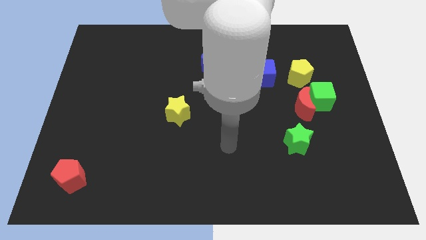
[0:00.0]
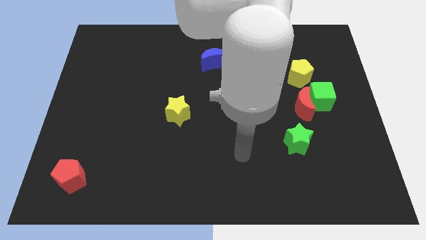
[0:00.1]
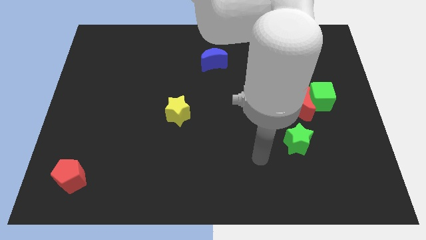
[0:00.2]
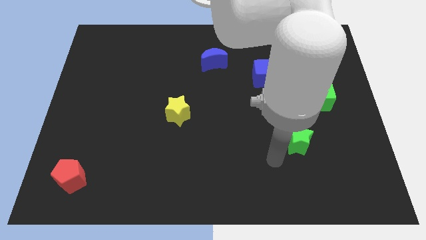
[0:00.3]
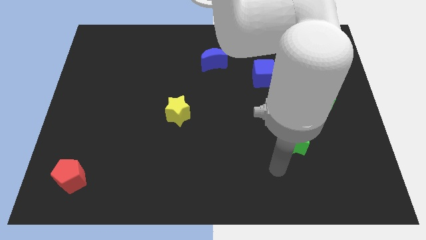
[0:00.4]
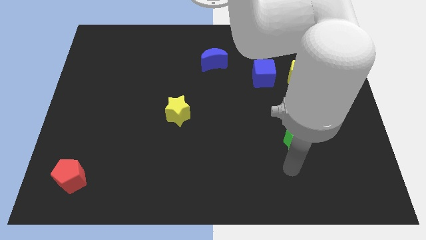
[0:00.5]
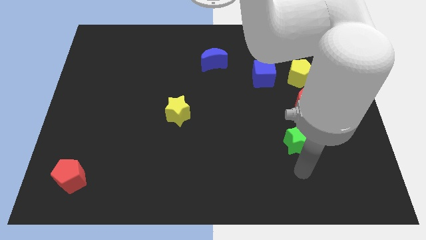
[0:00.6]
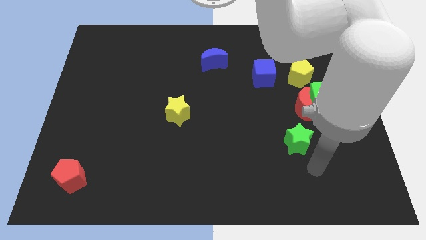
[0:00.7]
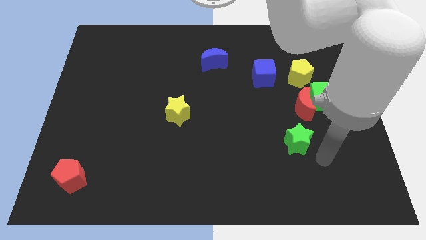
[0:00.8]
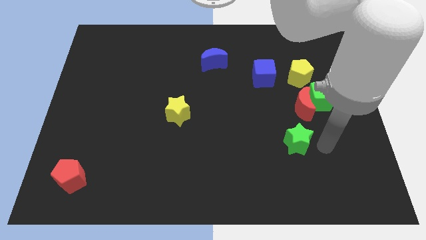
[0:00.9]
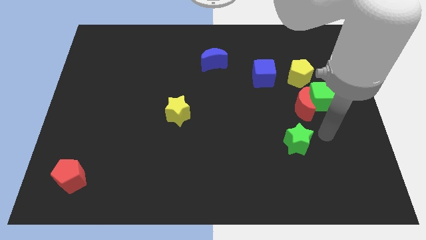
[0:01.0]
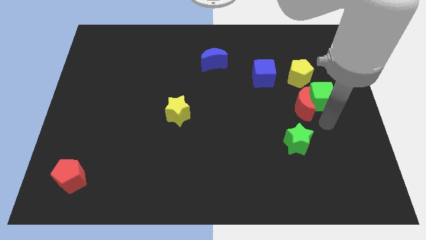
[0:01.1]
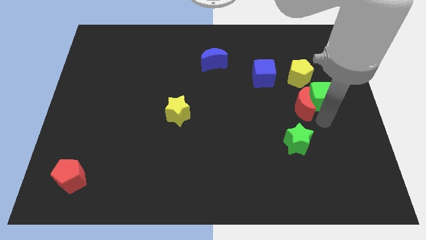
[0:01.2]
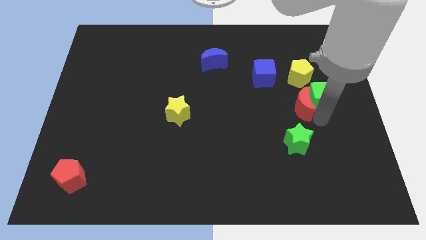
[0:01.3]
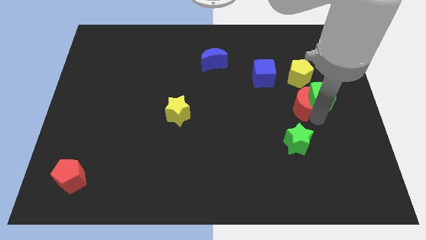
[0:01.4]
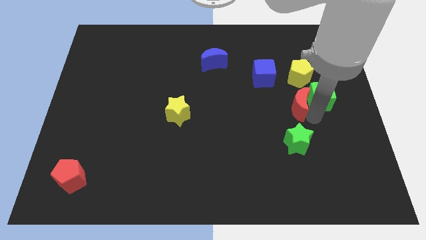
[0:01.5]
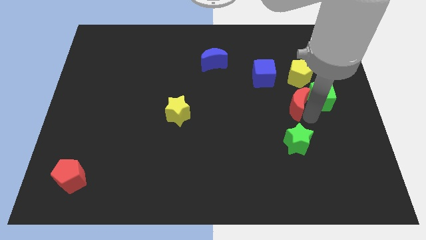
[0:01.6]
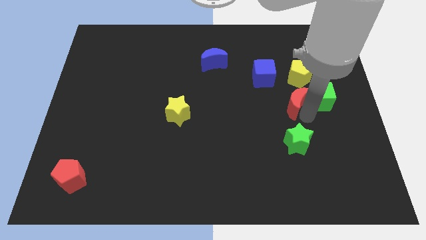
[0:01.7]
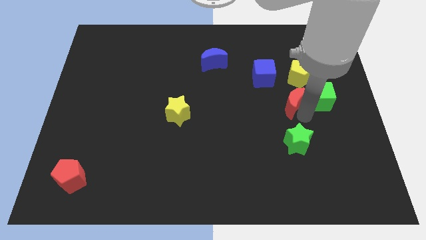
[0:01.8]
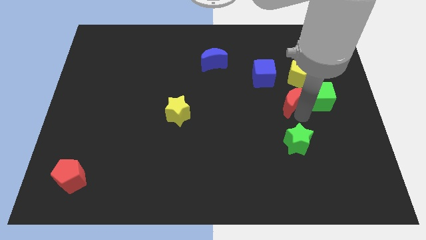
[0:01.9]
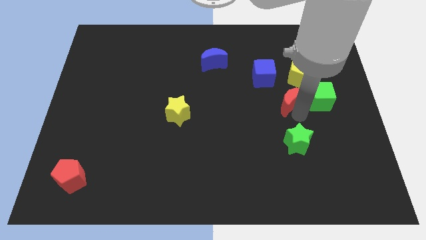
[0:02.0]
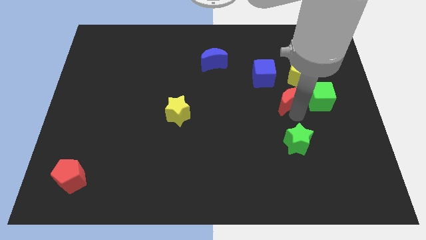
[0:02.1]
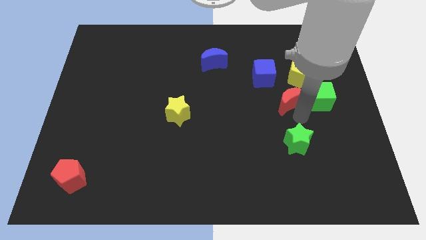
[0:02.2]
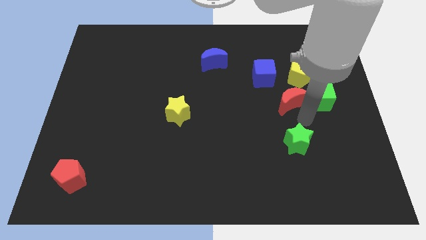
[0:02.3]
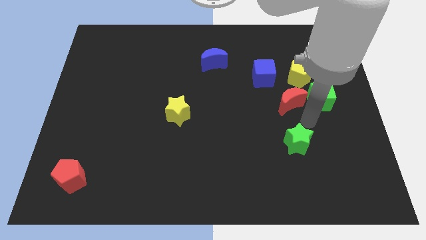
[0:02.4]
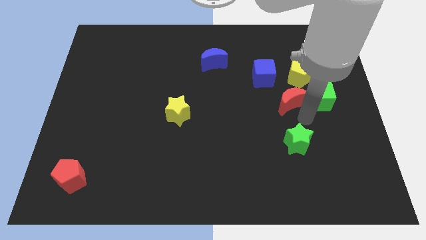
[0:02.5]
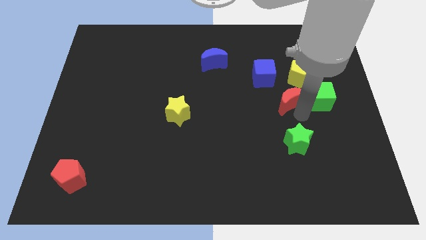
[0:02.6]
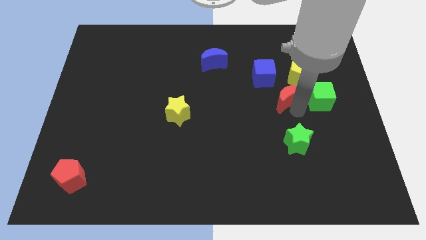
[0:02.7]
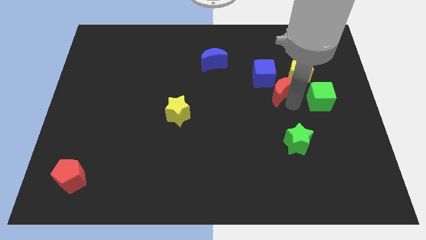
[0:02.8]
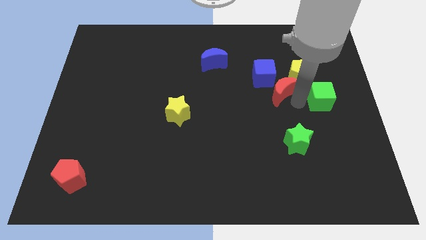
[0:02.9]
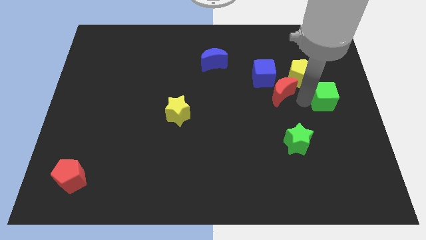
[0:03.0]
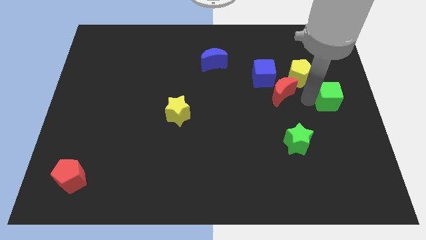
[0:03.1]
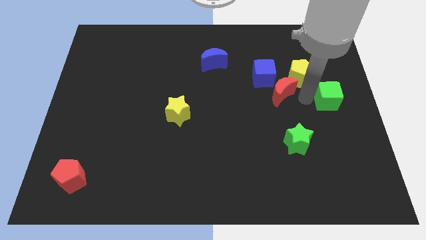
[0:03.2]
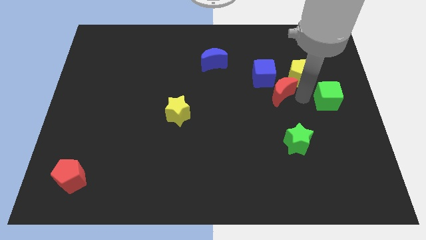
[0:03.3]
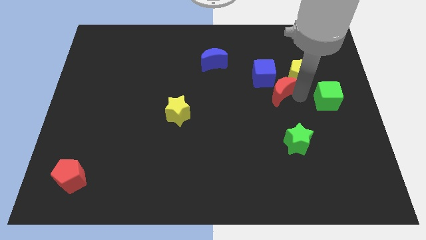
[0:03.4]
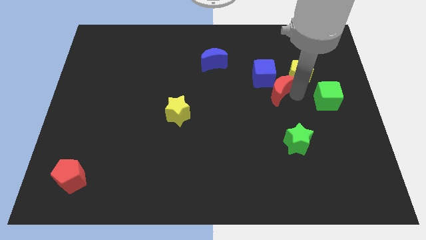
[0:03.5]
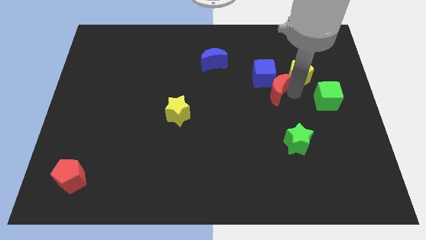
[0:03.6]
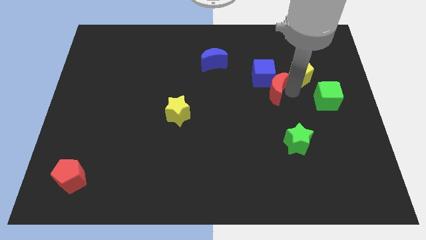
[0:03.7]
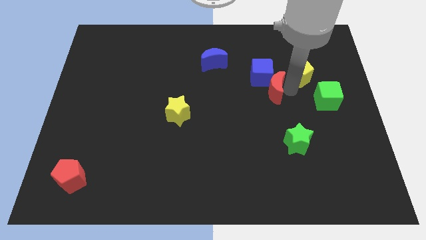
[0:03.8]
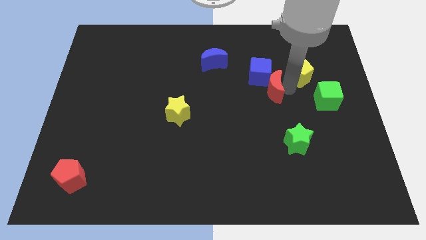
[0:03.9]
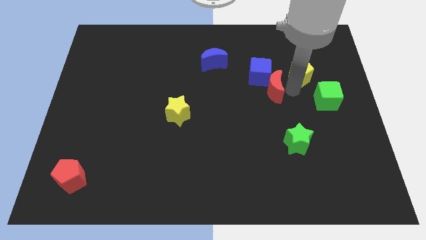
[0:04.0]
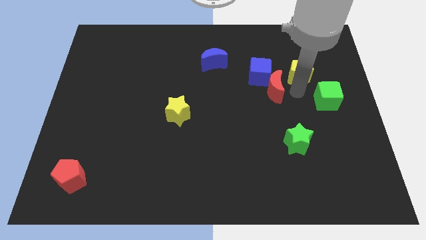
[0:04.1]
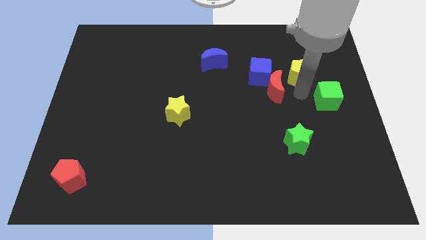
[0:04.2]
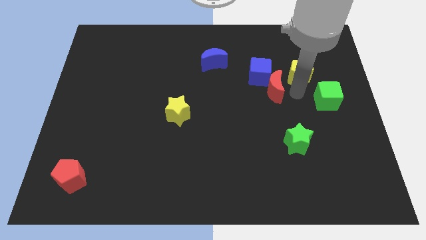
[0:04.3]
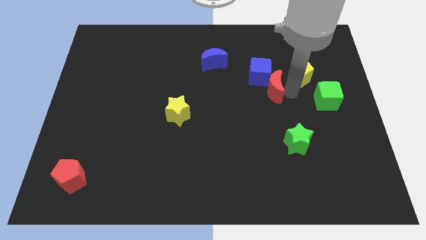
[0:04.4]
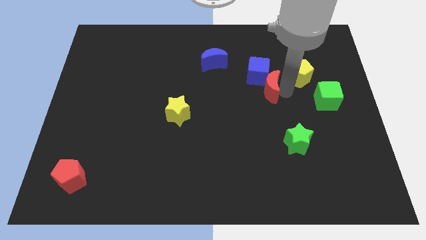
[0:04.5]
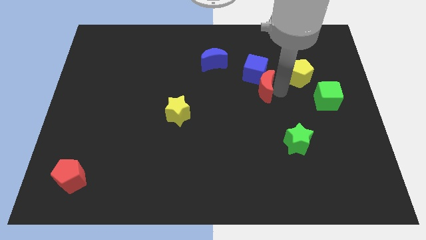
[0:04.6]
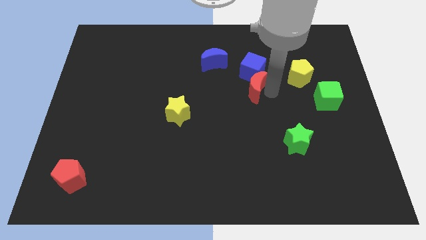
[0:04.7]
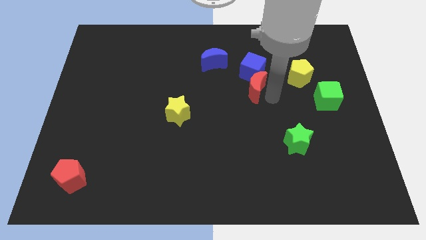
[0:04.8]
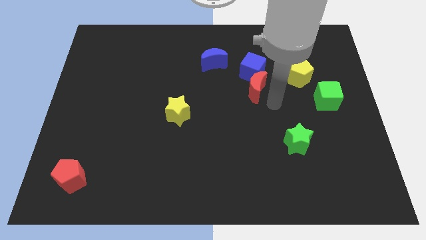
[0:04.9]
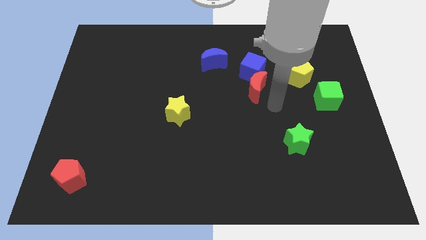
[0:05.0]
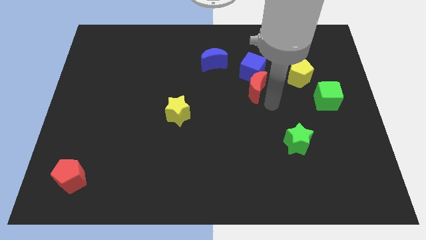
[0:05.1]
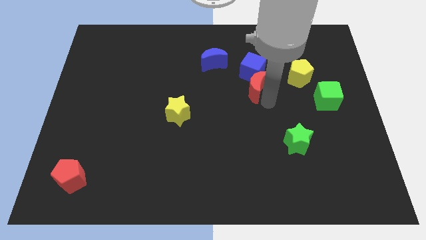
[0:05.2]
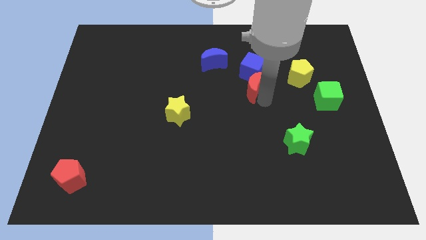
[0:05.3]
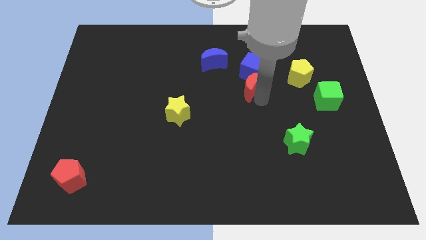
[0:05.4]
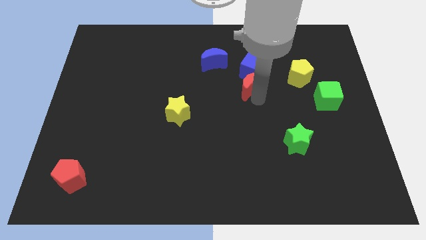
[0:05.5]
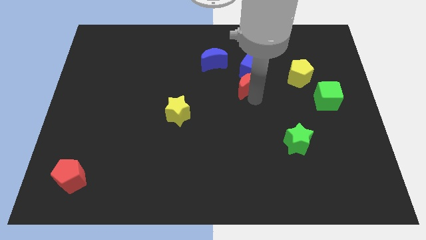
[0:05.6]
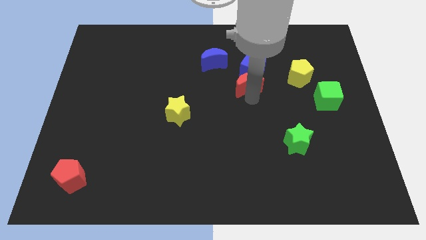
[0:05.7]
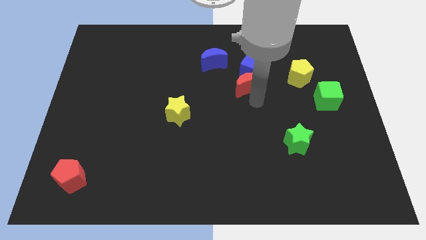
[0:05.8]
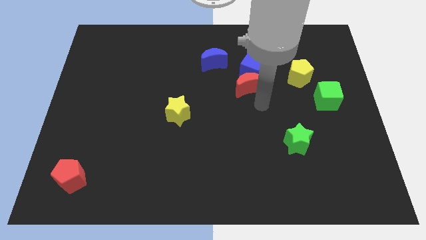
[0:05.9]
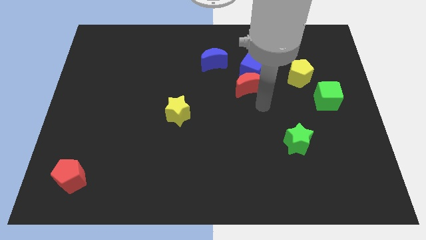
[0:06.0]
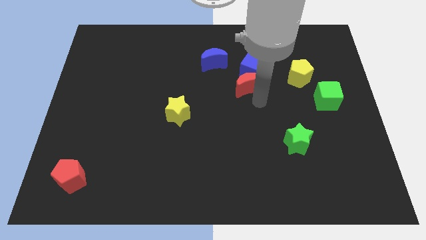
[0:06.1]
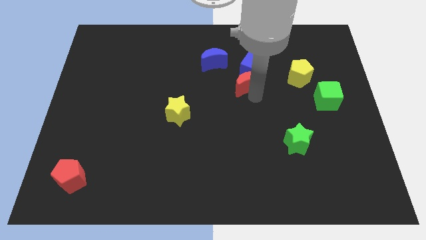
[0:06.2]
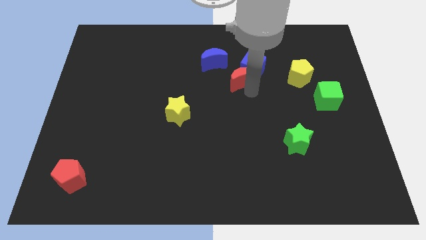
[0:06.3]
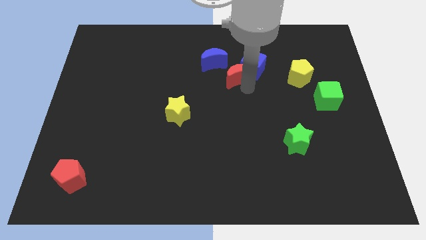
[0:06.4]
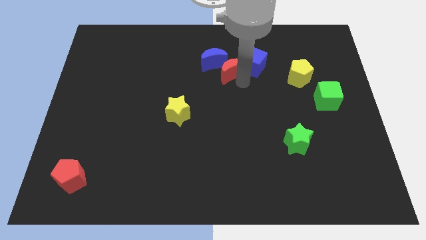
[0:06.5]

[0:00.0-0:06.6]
push the red moon next to the blue moon

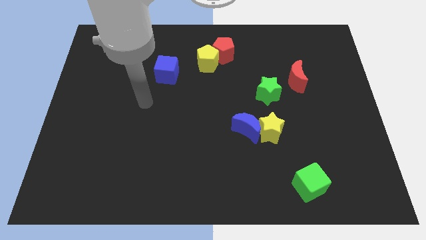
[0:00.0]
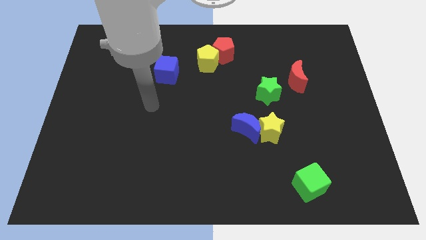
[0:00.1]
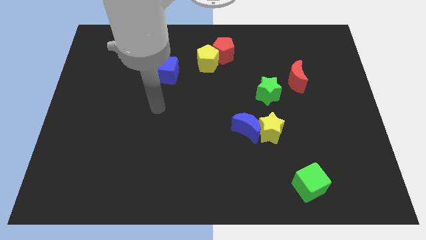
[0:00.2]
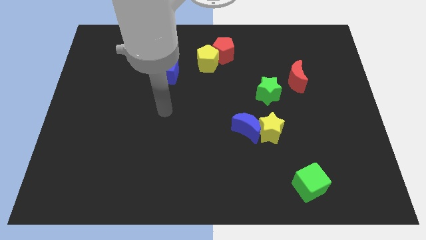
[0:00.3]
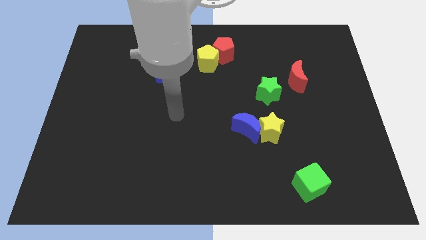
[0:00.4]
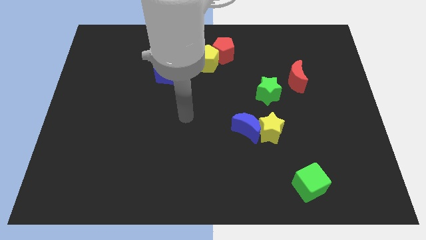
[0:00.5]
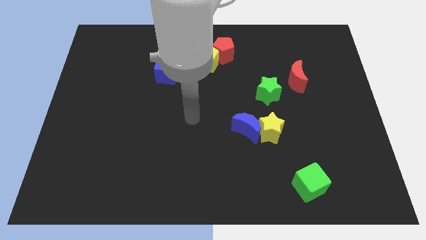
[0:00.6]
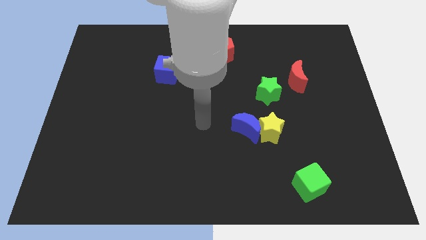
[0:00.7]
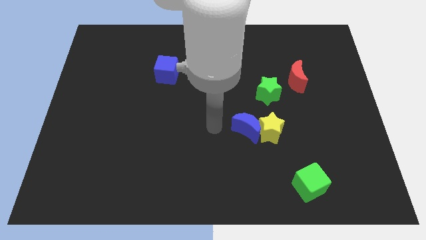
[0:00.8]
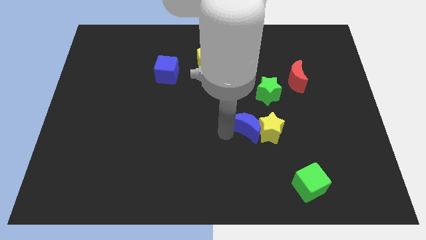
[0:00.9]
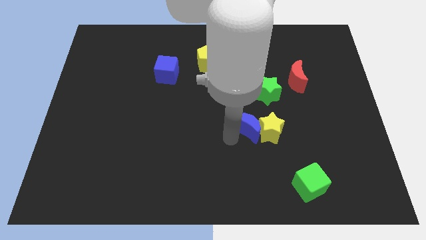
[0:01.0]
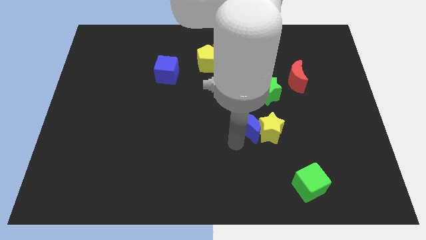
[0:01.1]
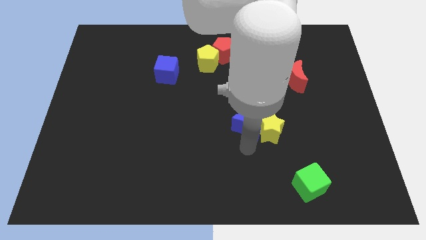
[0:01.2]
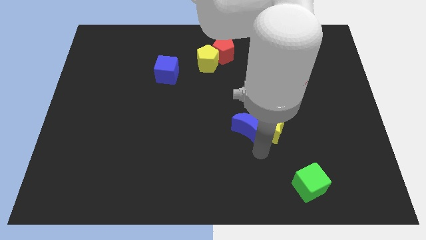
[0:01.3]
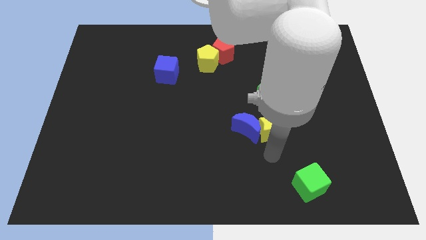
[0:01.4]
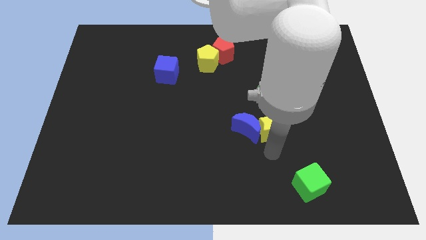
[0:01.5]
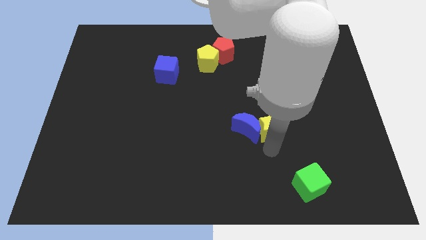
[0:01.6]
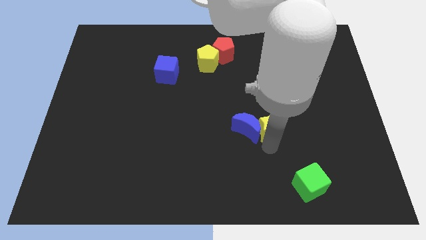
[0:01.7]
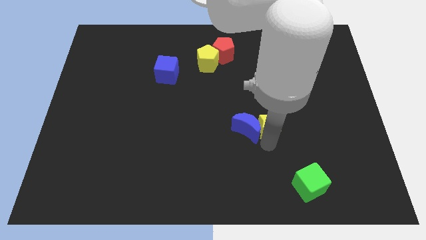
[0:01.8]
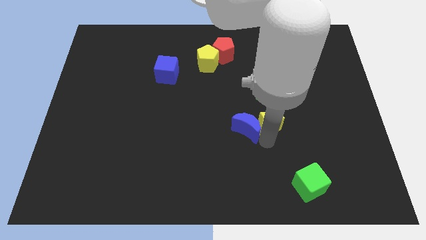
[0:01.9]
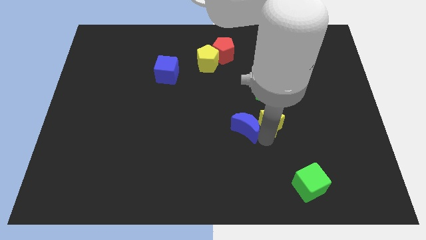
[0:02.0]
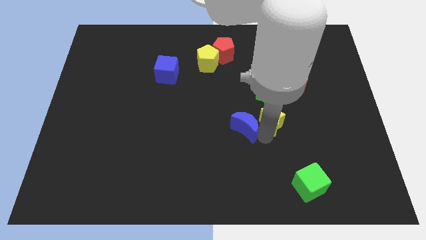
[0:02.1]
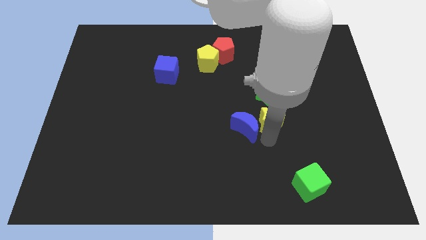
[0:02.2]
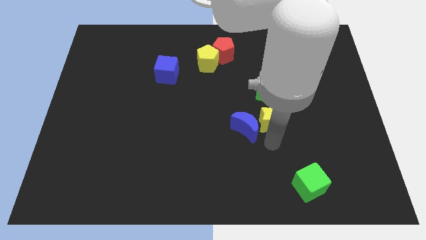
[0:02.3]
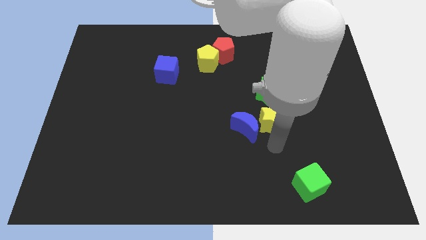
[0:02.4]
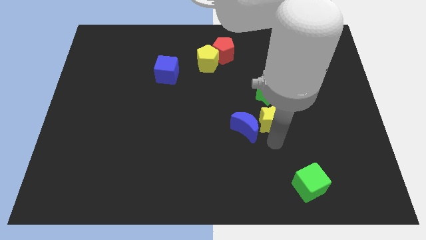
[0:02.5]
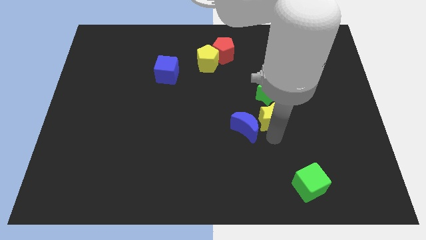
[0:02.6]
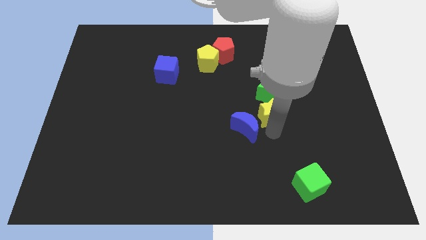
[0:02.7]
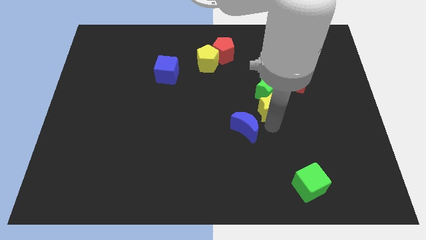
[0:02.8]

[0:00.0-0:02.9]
slide the yellow star to the green star
